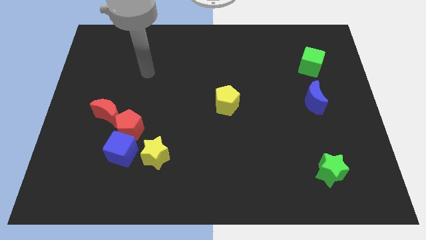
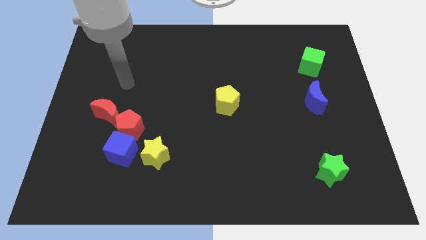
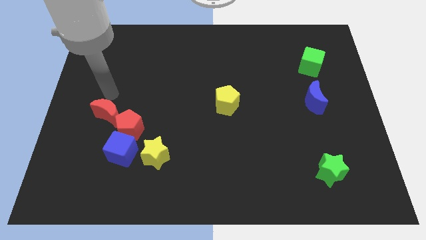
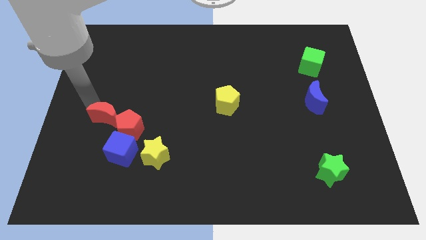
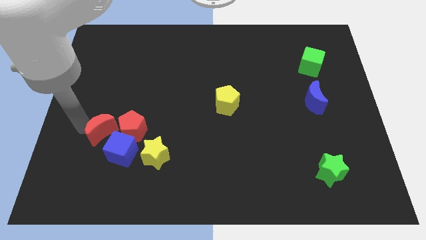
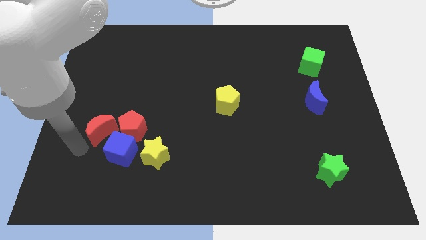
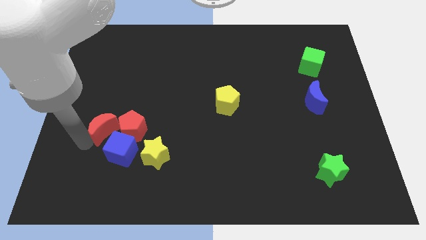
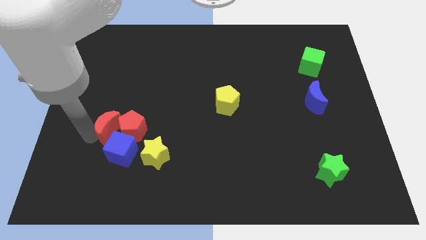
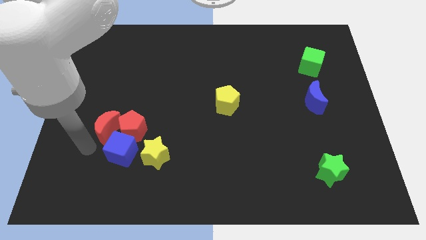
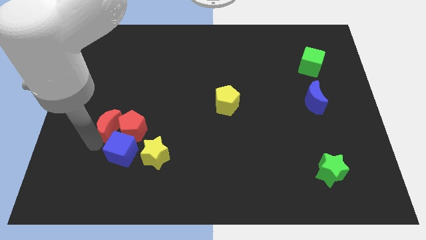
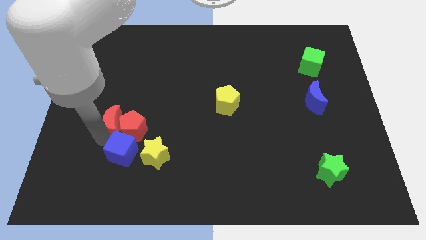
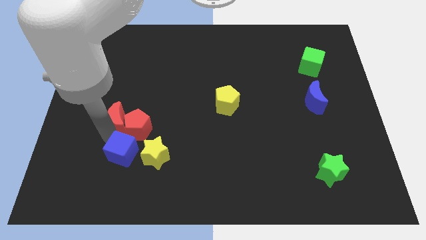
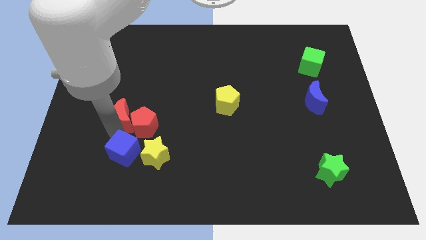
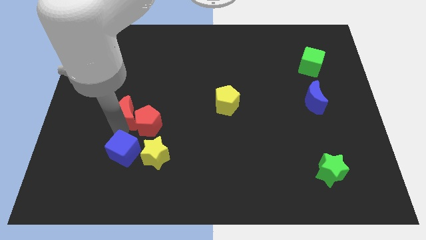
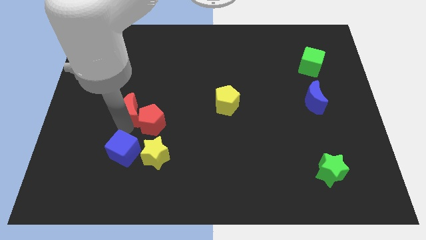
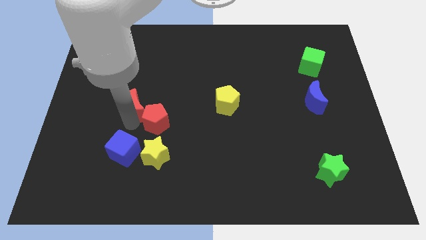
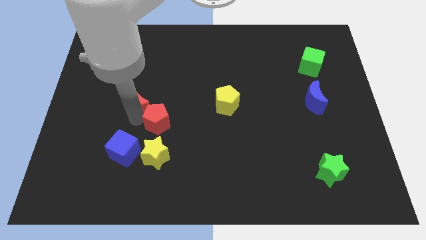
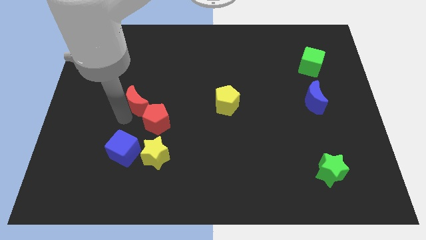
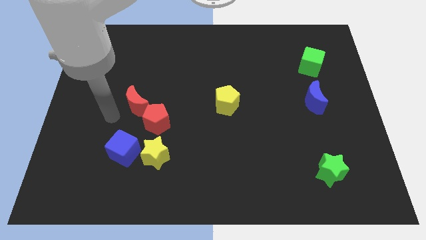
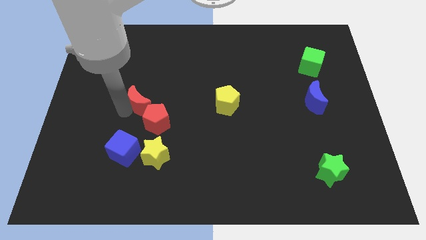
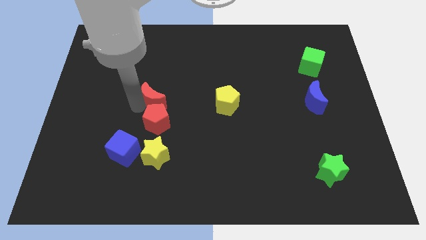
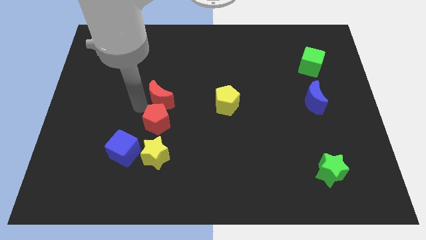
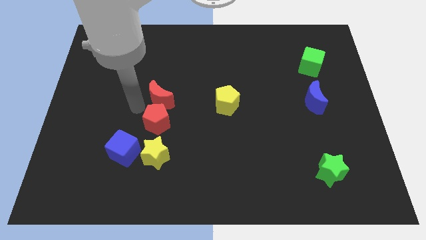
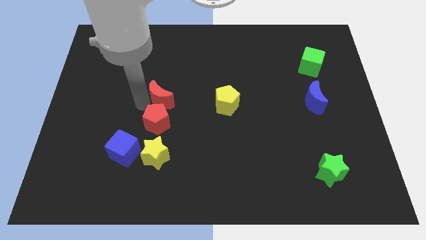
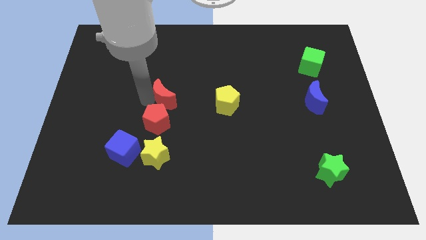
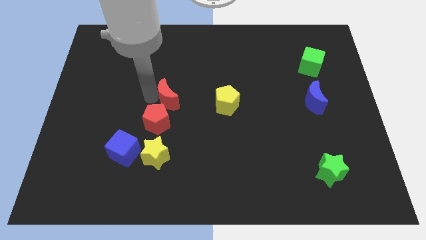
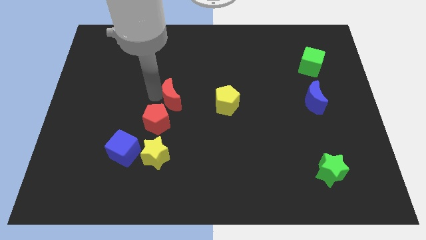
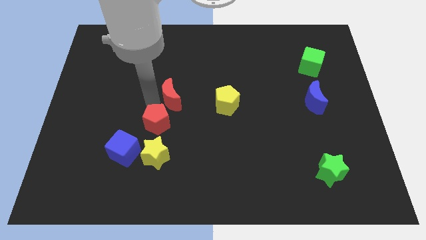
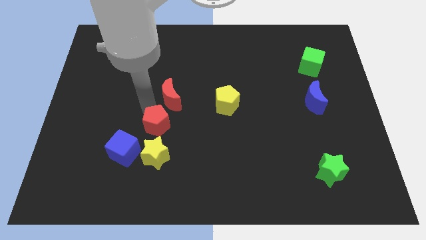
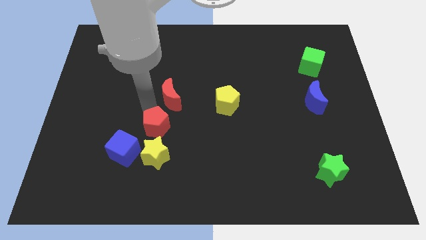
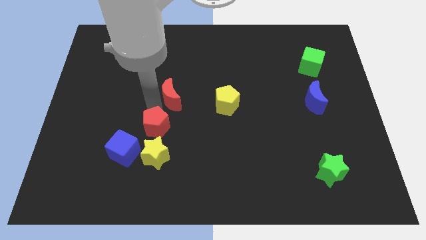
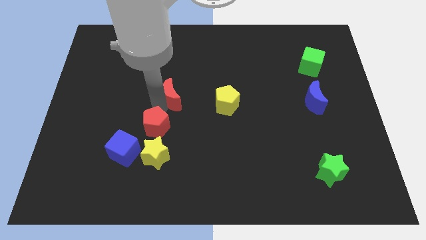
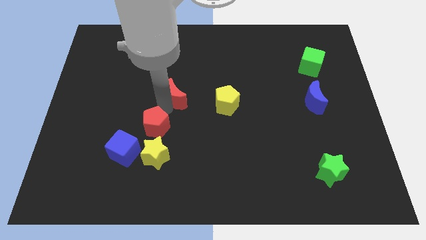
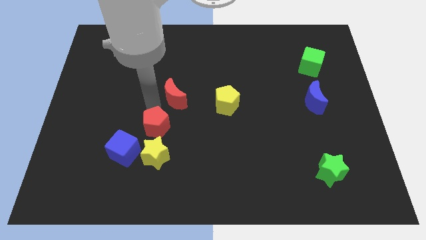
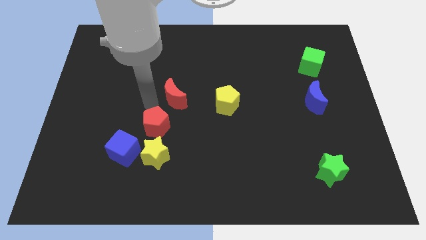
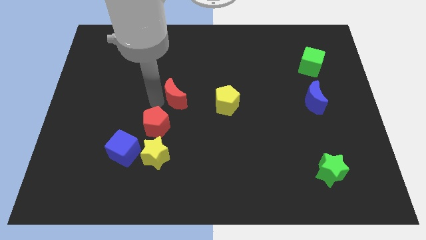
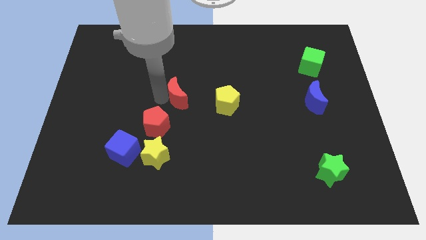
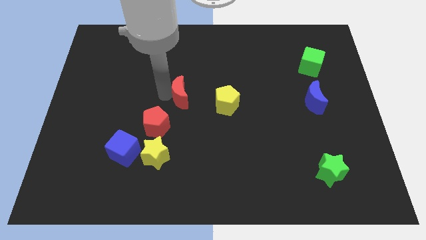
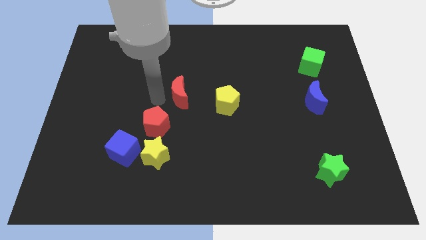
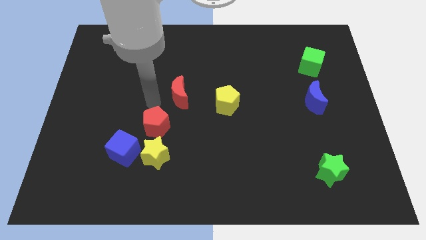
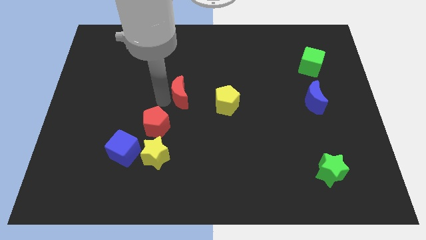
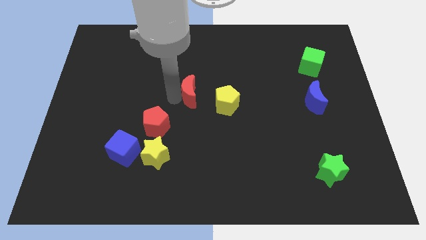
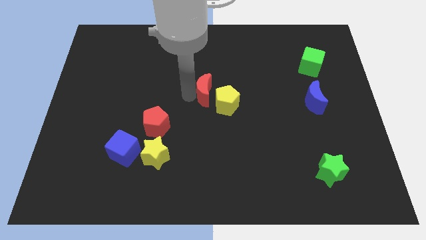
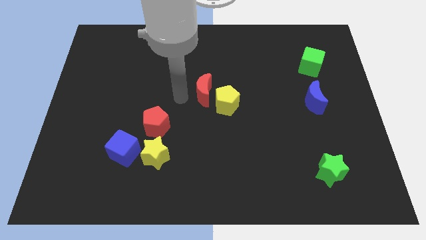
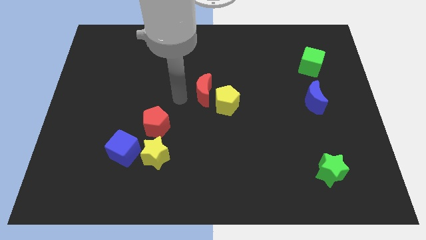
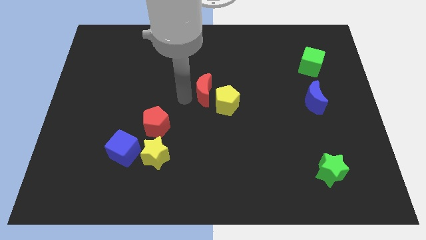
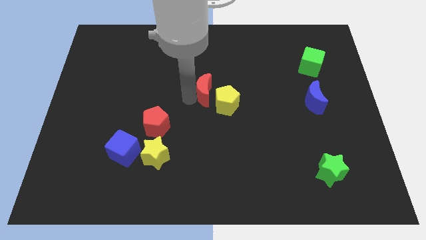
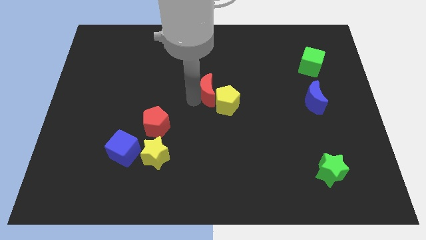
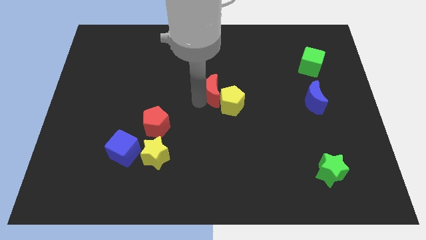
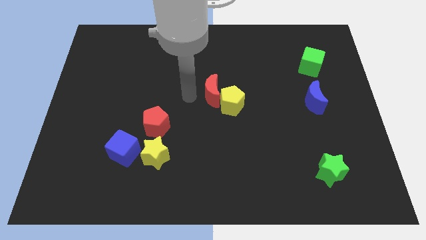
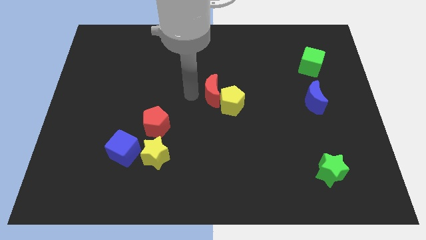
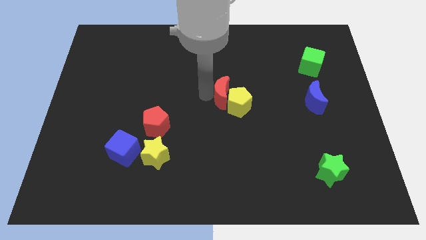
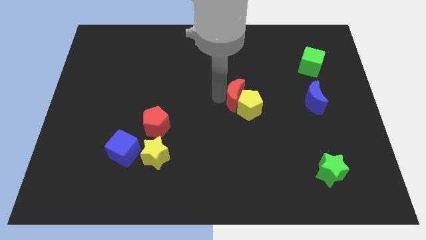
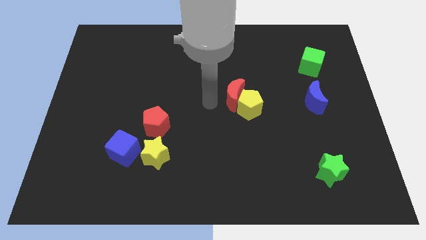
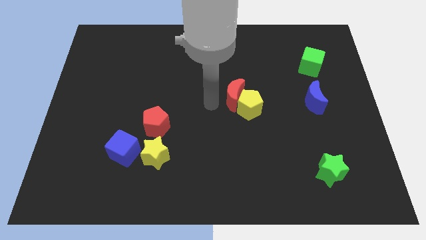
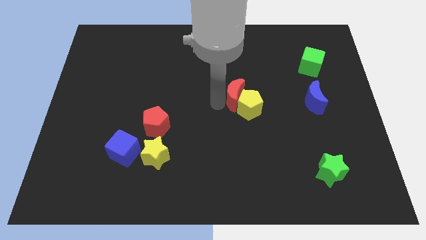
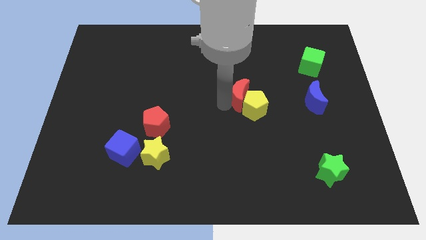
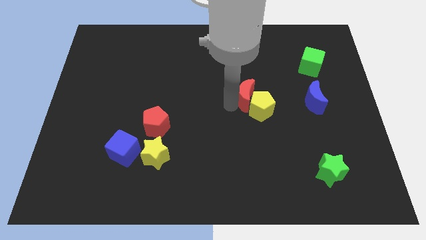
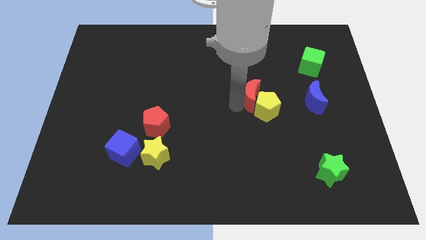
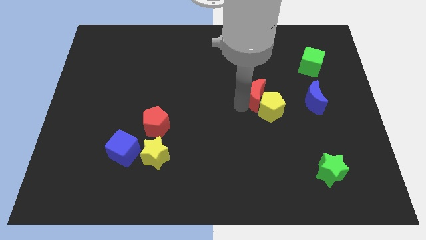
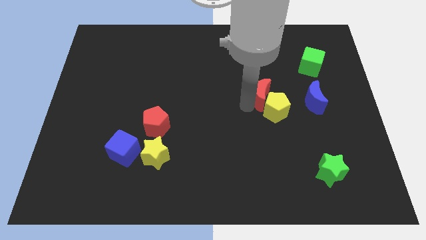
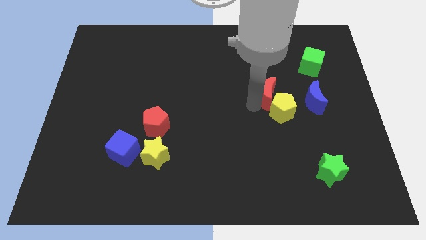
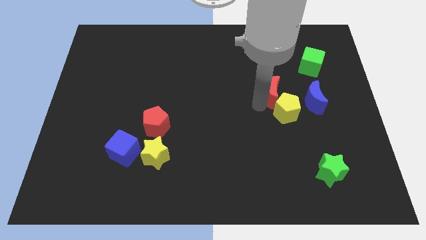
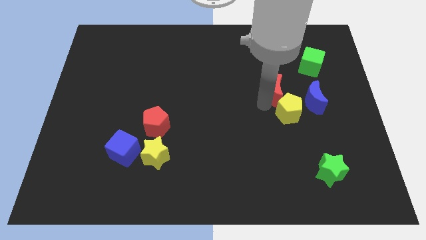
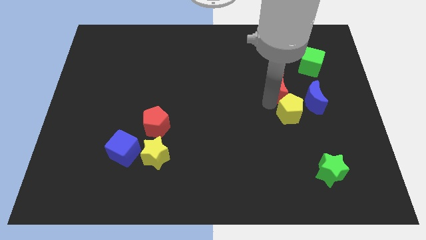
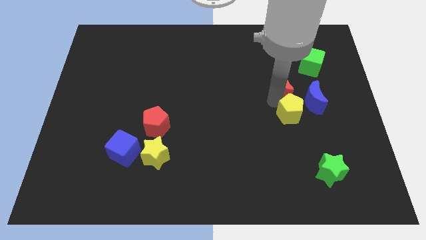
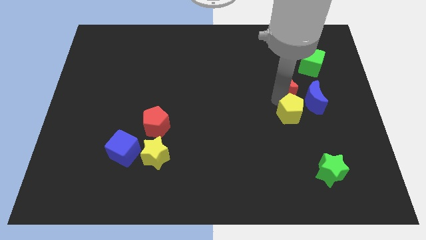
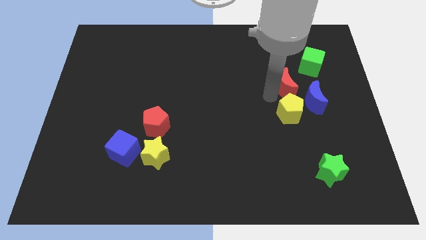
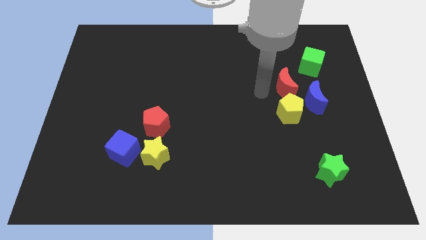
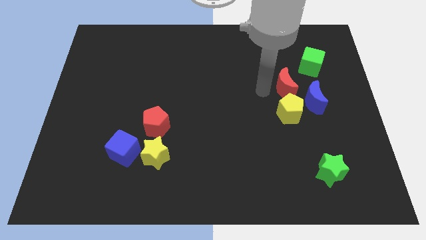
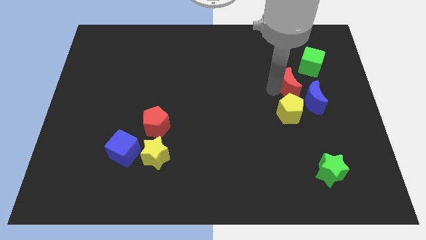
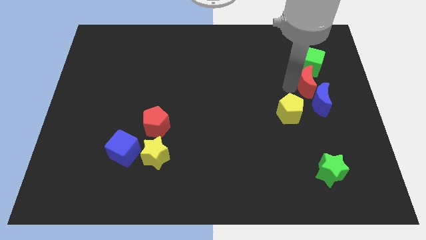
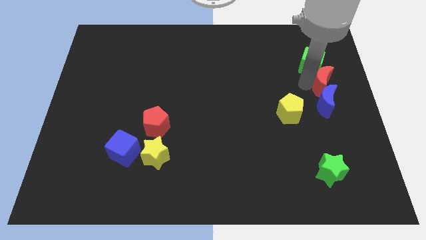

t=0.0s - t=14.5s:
move the red moon to the top right side of the blue moon
